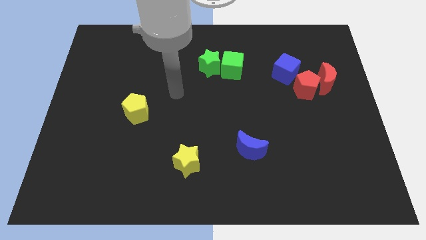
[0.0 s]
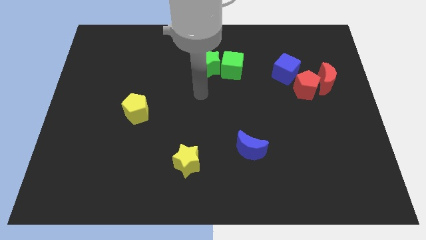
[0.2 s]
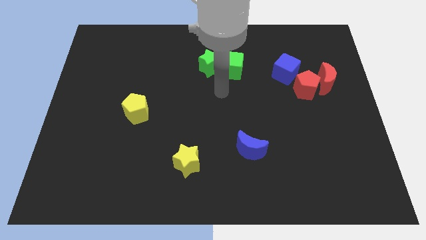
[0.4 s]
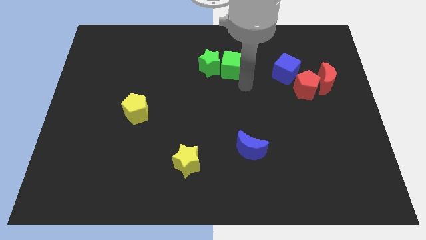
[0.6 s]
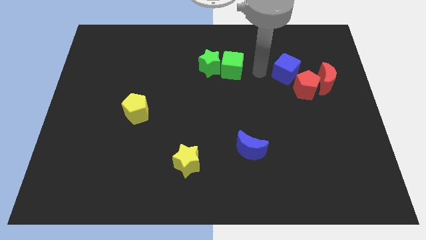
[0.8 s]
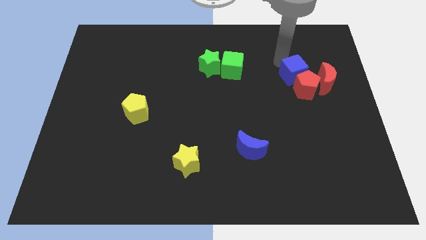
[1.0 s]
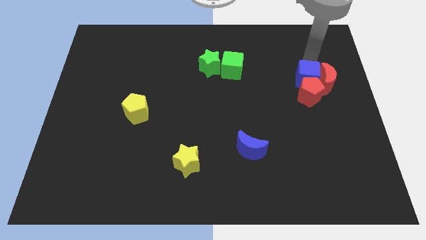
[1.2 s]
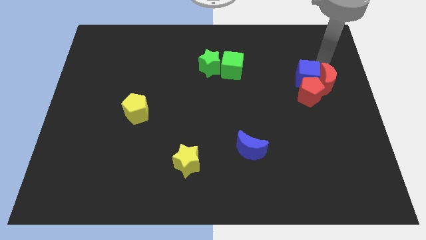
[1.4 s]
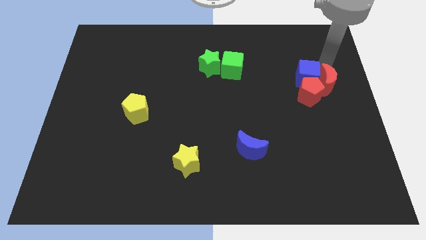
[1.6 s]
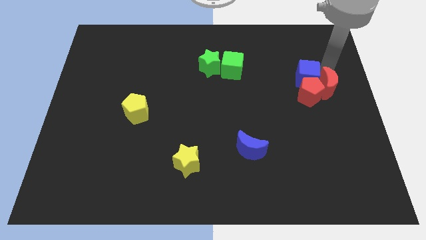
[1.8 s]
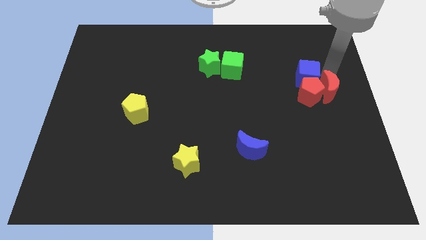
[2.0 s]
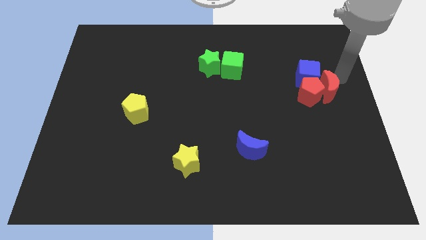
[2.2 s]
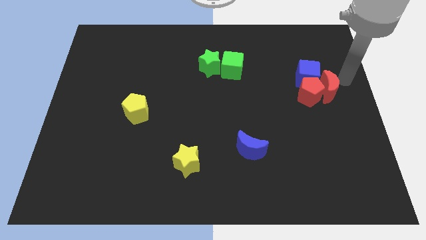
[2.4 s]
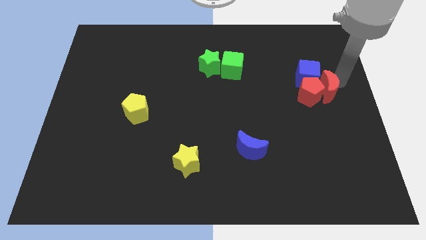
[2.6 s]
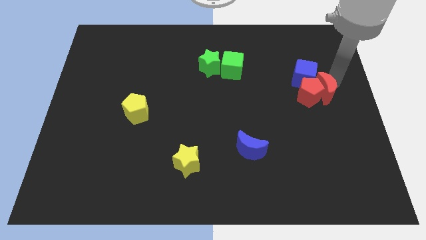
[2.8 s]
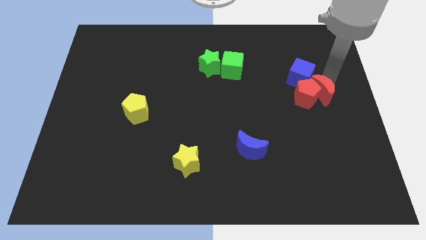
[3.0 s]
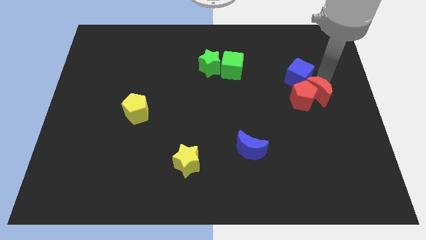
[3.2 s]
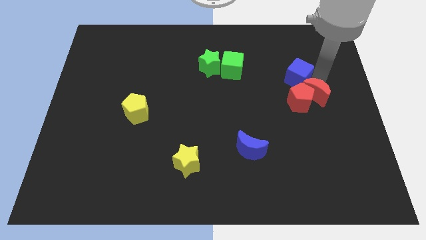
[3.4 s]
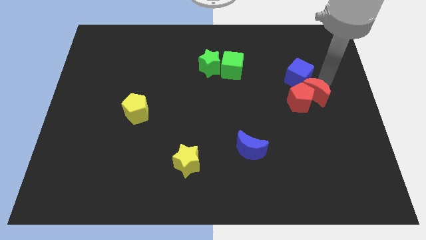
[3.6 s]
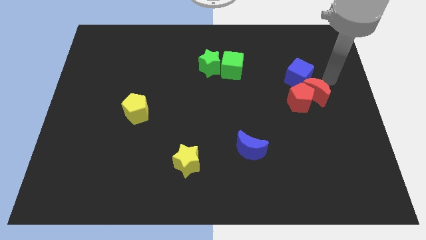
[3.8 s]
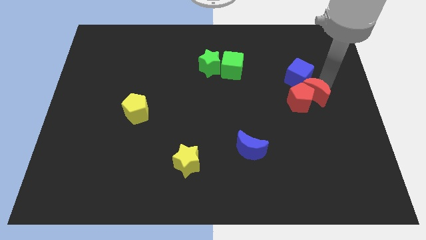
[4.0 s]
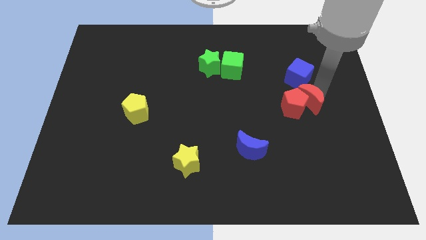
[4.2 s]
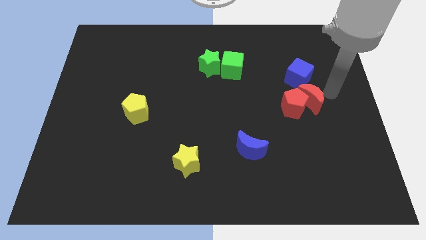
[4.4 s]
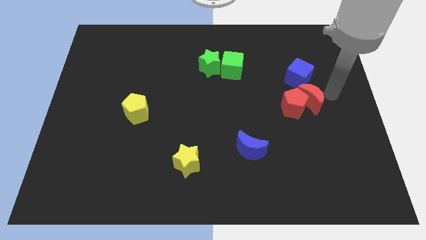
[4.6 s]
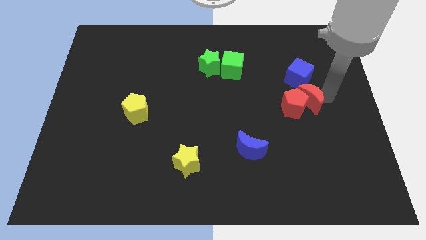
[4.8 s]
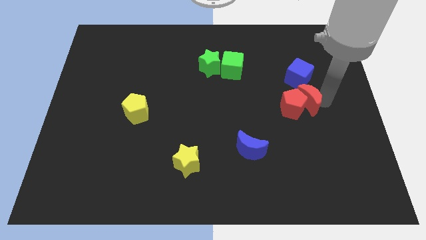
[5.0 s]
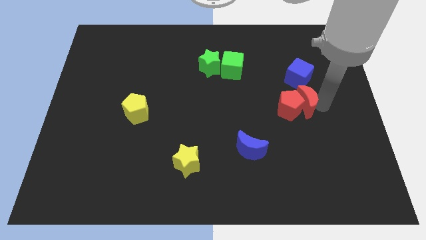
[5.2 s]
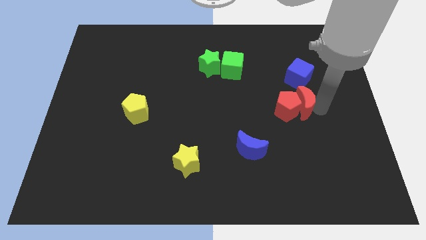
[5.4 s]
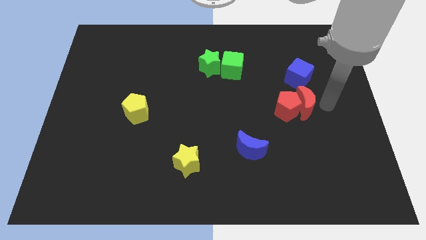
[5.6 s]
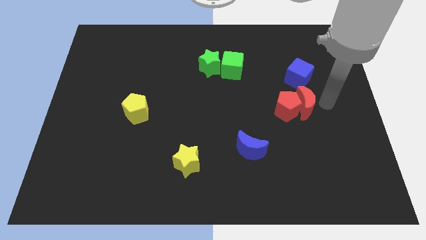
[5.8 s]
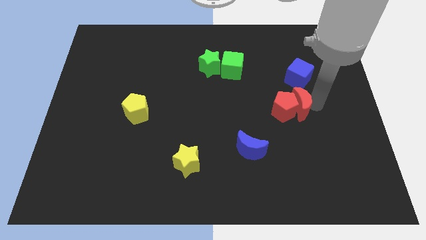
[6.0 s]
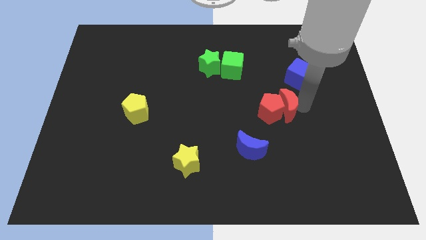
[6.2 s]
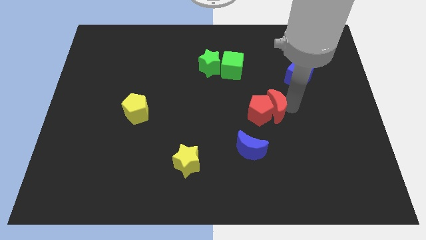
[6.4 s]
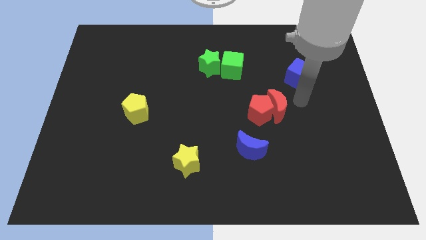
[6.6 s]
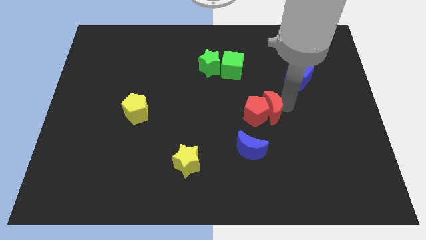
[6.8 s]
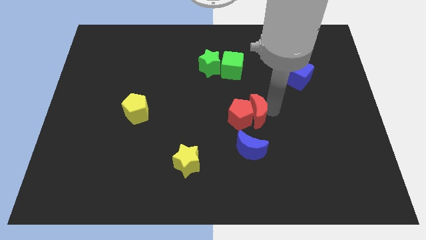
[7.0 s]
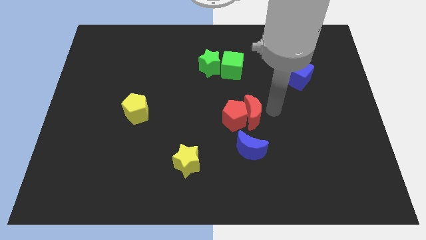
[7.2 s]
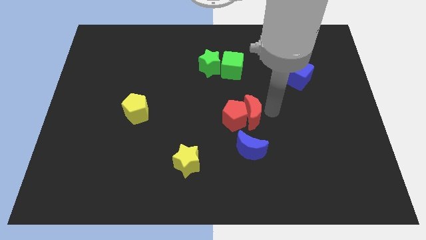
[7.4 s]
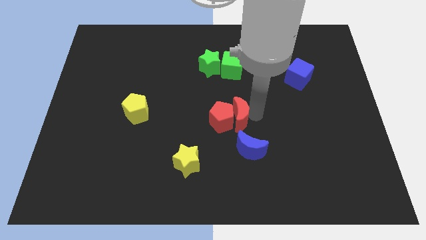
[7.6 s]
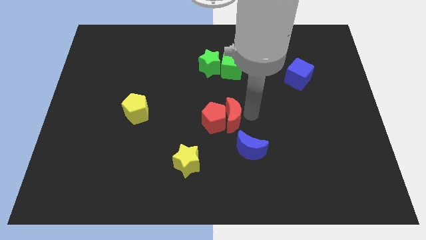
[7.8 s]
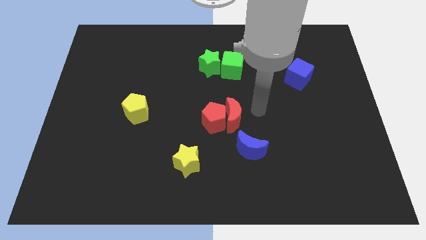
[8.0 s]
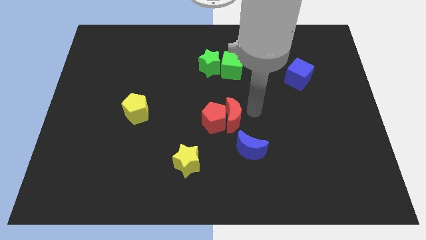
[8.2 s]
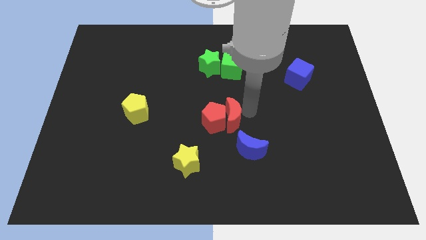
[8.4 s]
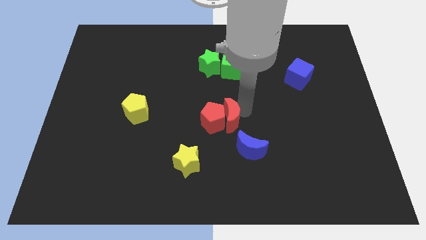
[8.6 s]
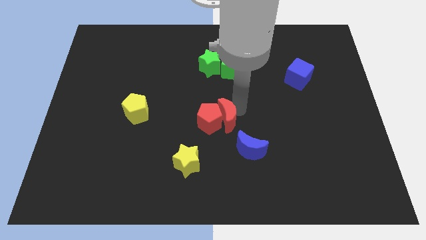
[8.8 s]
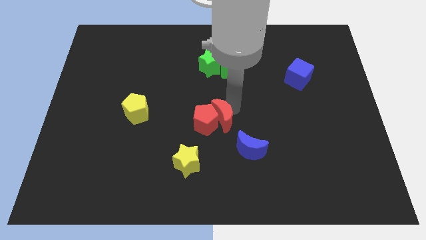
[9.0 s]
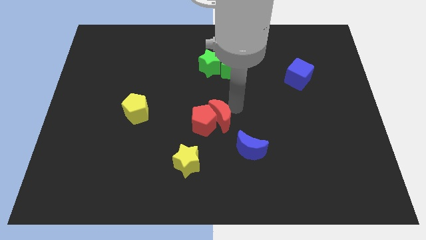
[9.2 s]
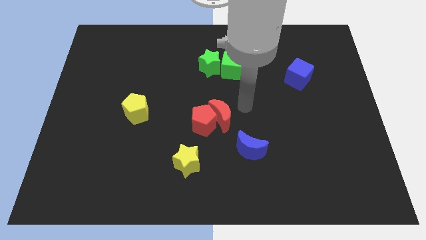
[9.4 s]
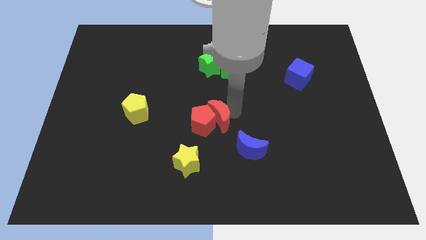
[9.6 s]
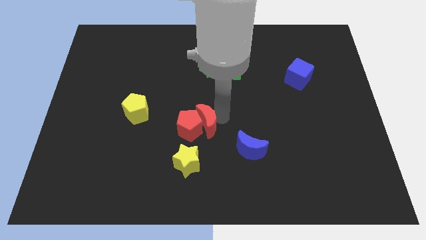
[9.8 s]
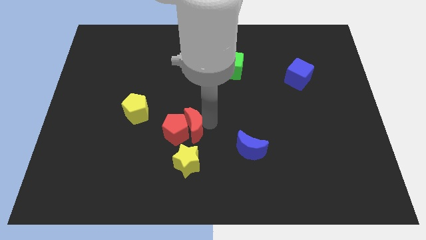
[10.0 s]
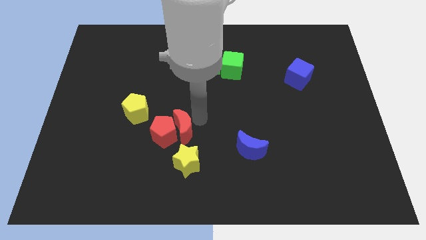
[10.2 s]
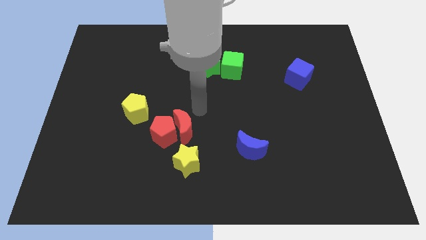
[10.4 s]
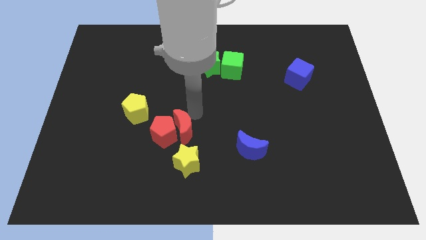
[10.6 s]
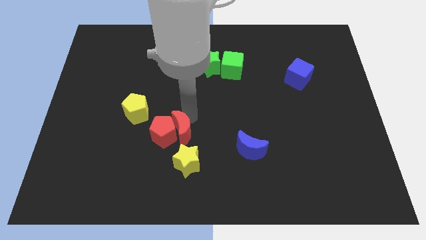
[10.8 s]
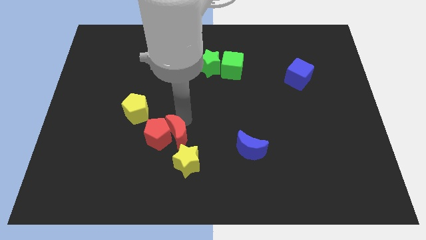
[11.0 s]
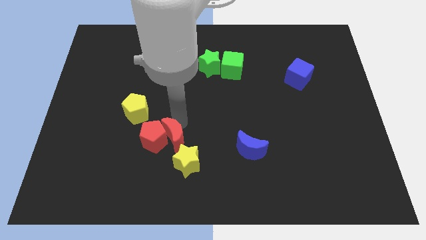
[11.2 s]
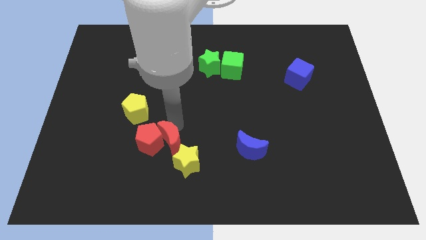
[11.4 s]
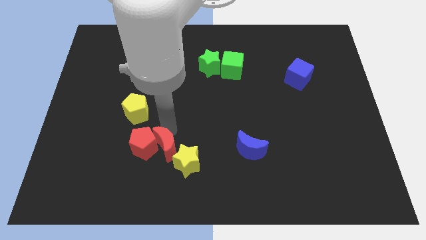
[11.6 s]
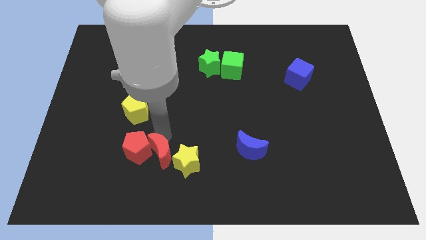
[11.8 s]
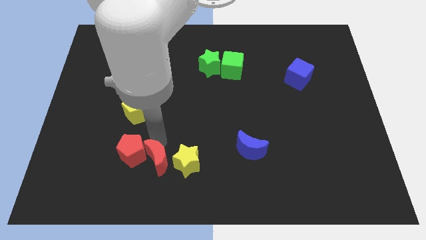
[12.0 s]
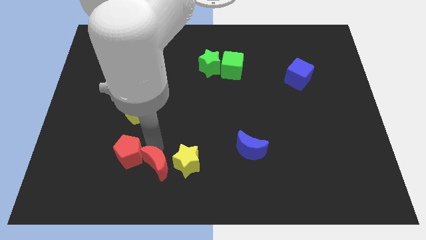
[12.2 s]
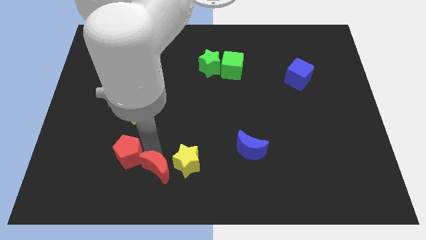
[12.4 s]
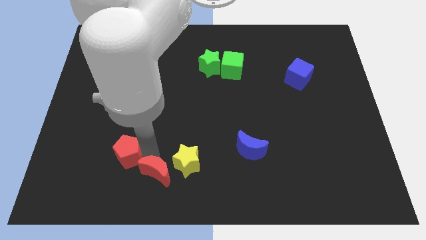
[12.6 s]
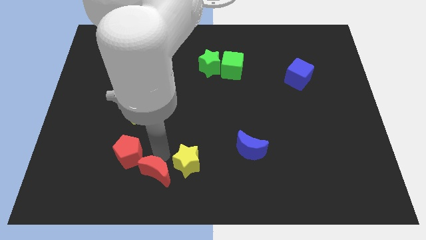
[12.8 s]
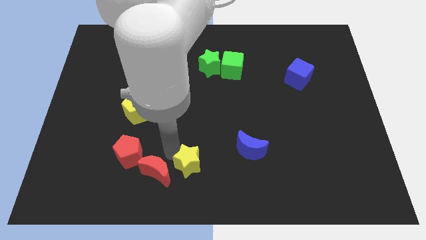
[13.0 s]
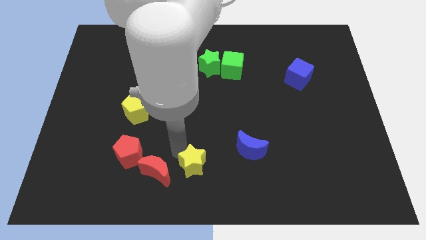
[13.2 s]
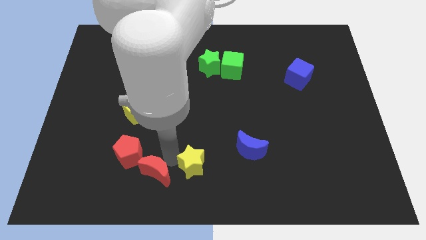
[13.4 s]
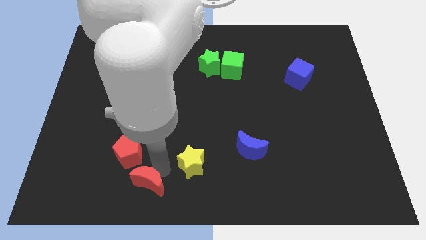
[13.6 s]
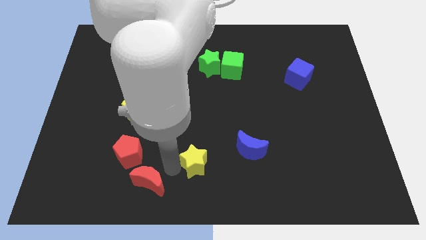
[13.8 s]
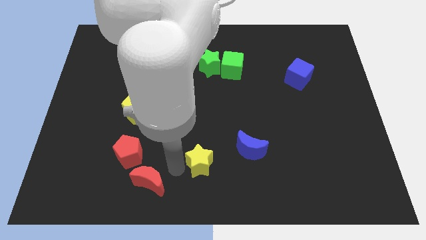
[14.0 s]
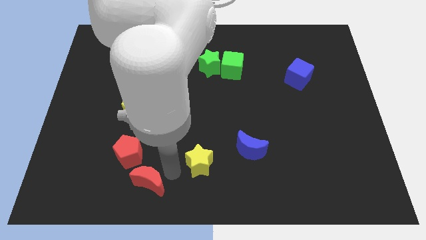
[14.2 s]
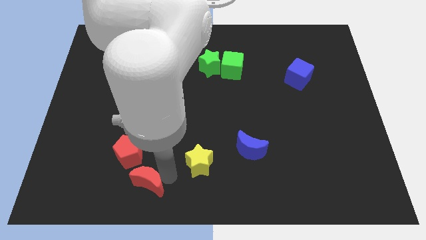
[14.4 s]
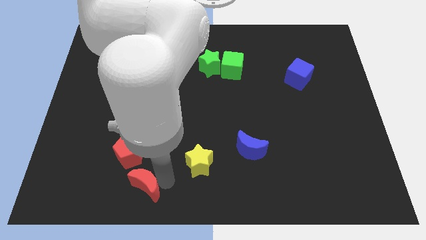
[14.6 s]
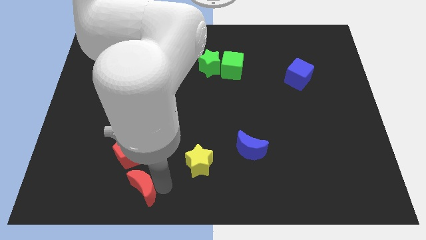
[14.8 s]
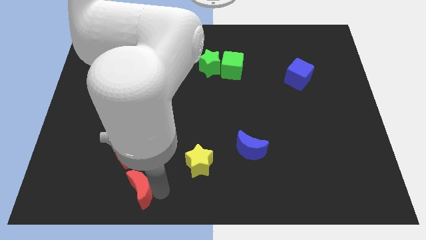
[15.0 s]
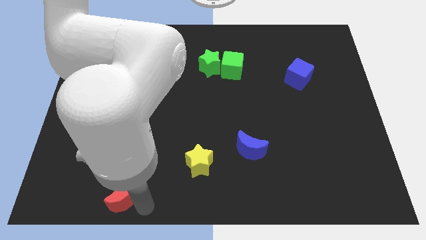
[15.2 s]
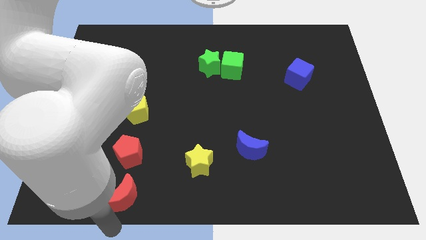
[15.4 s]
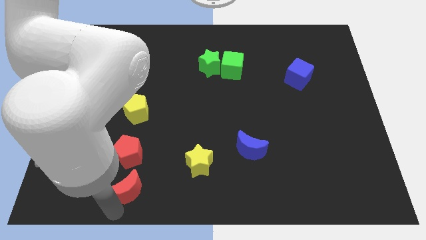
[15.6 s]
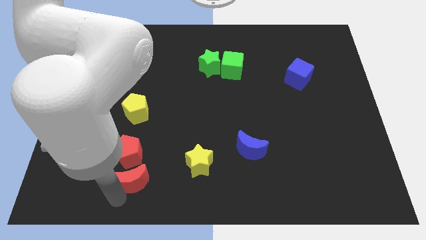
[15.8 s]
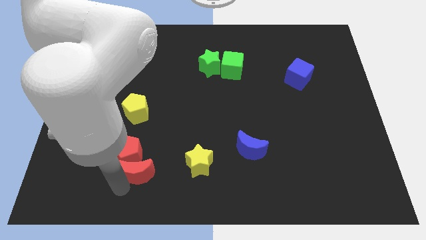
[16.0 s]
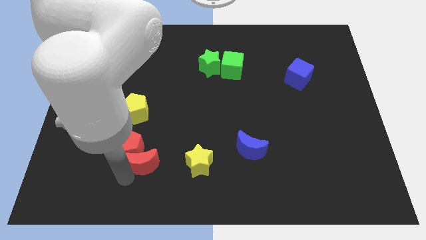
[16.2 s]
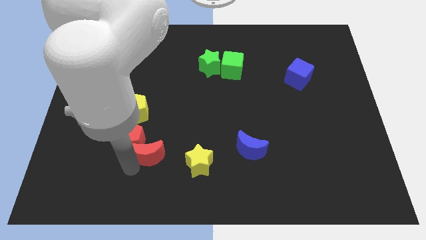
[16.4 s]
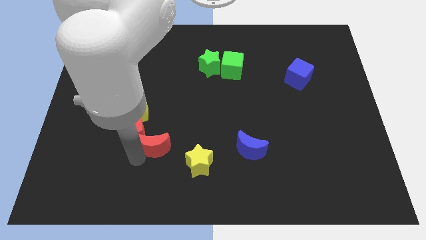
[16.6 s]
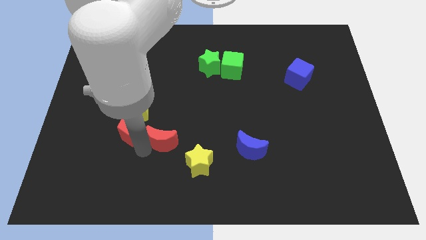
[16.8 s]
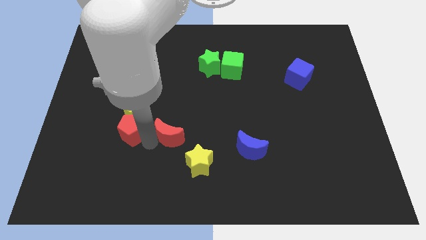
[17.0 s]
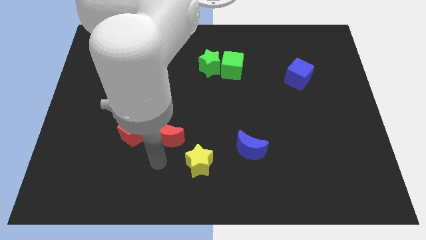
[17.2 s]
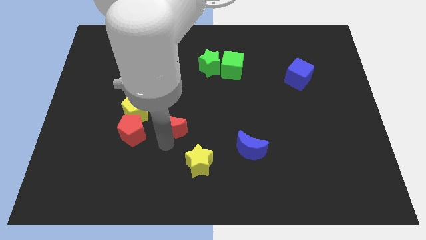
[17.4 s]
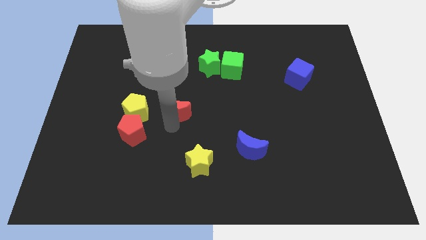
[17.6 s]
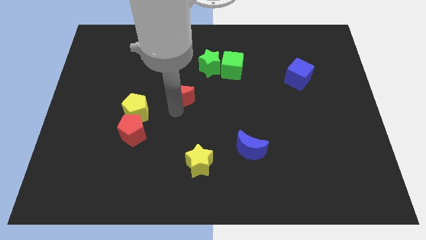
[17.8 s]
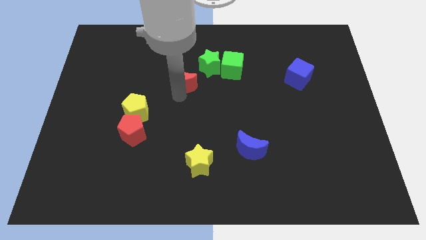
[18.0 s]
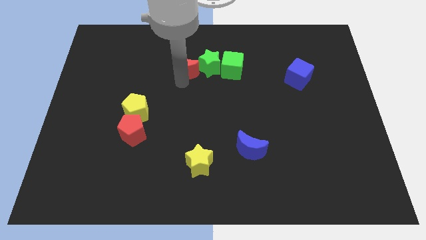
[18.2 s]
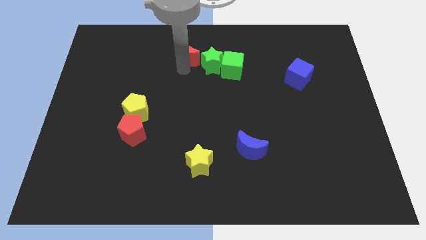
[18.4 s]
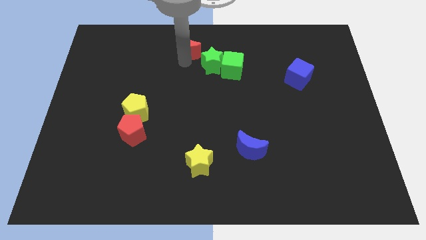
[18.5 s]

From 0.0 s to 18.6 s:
push the red moon to the top
